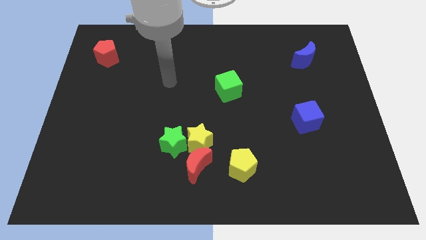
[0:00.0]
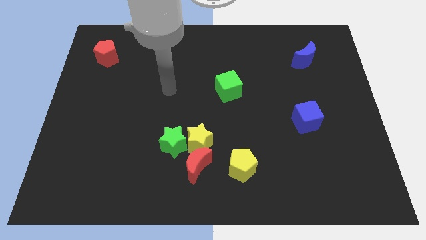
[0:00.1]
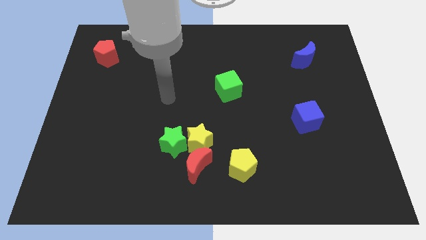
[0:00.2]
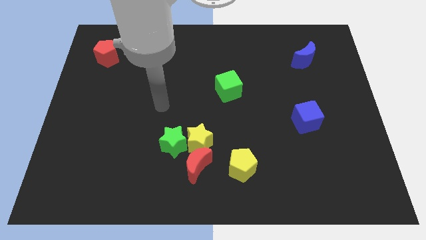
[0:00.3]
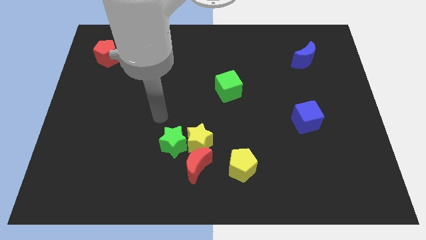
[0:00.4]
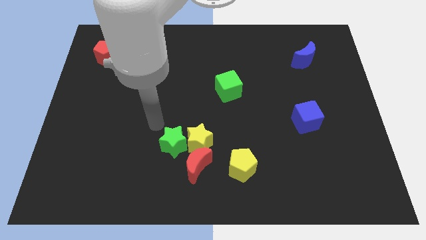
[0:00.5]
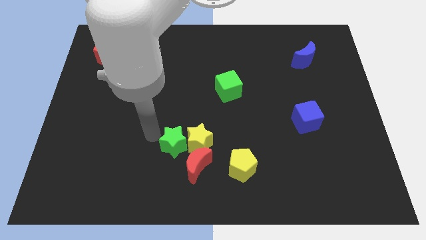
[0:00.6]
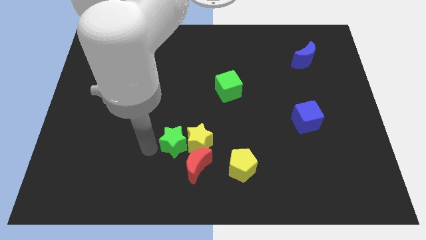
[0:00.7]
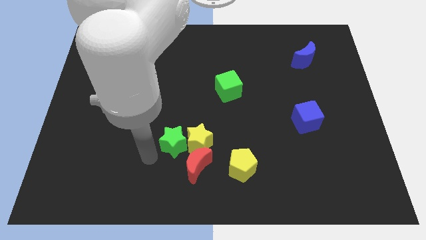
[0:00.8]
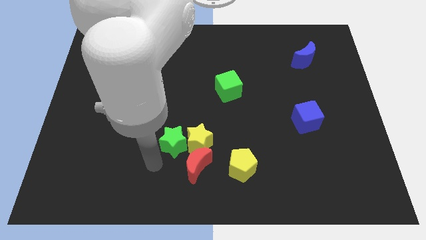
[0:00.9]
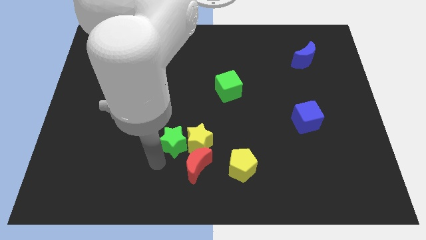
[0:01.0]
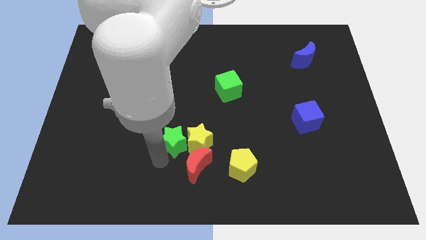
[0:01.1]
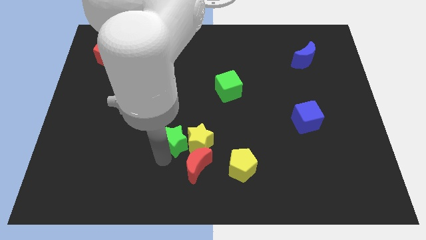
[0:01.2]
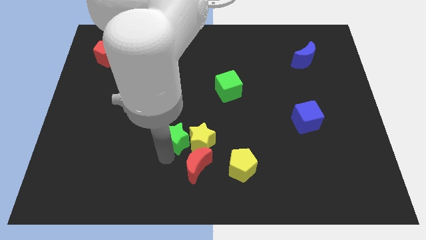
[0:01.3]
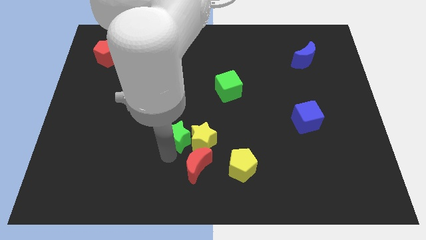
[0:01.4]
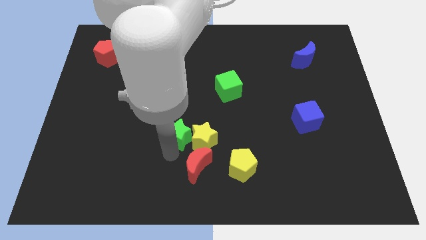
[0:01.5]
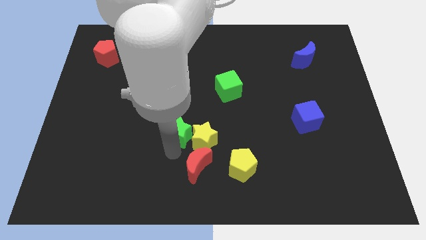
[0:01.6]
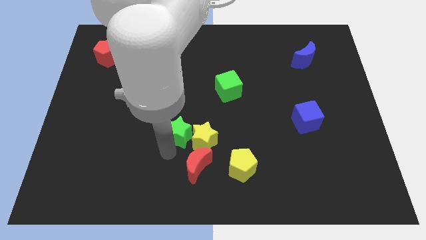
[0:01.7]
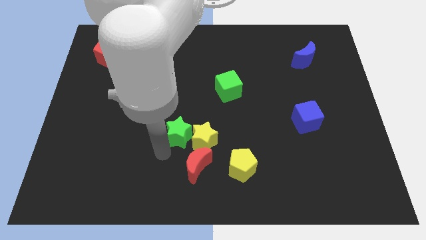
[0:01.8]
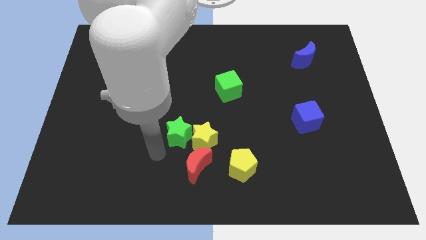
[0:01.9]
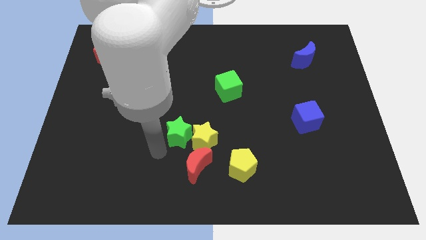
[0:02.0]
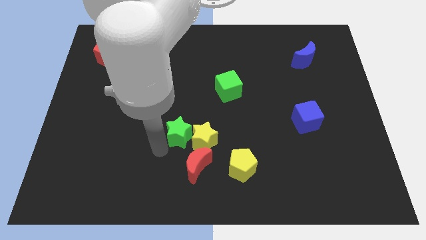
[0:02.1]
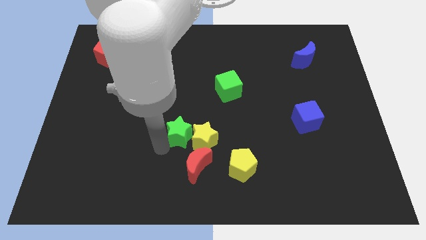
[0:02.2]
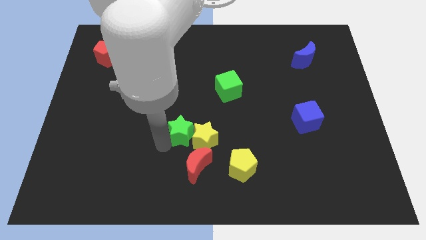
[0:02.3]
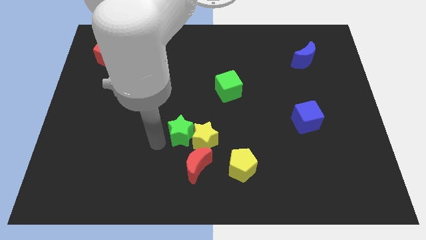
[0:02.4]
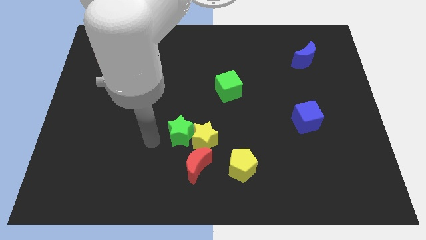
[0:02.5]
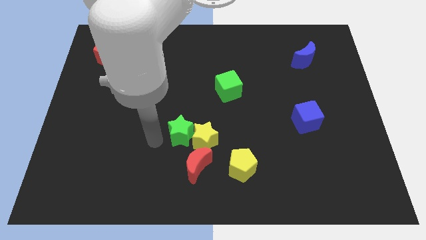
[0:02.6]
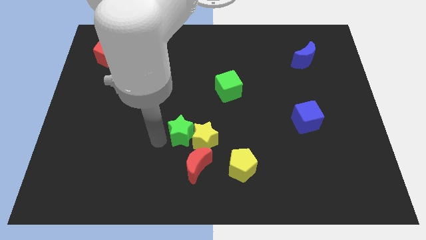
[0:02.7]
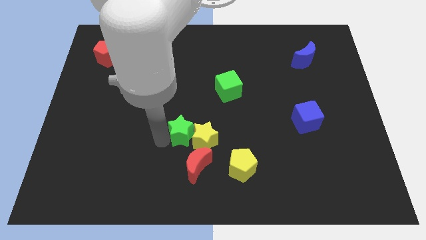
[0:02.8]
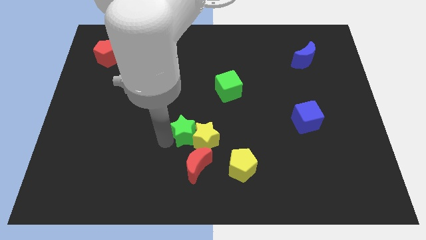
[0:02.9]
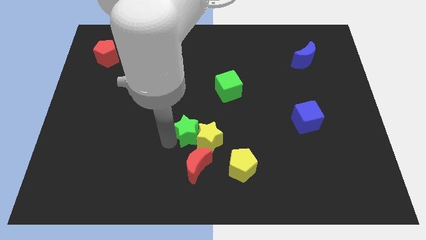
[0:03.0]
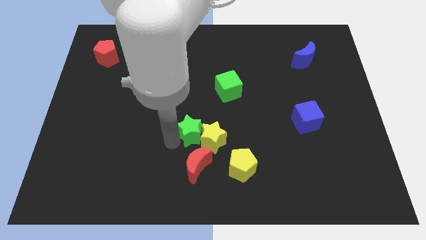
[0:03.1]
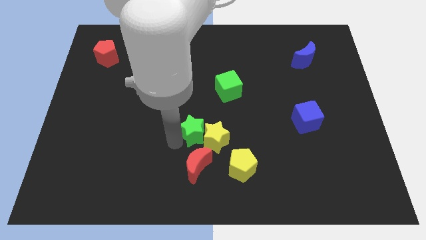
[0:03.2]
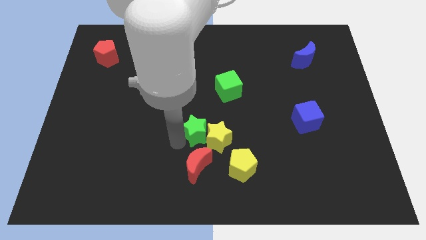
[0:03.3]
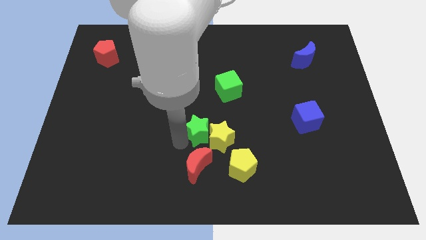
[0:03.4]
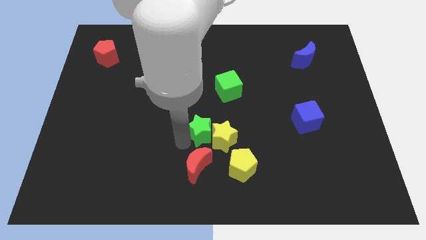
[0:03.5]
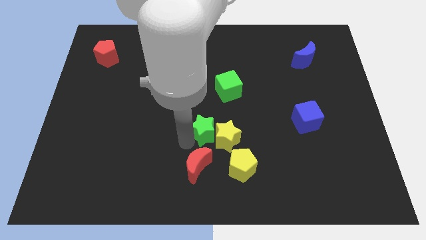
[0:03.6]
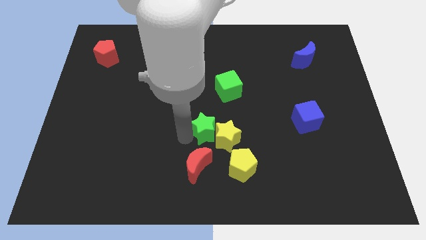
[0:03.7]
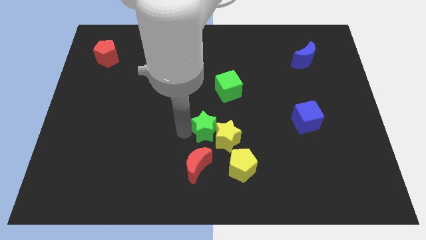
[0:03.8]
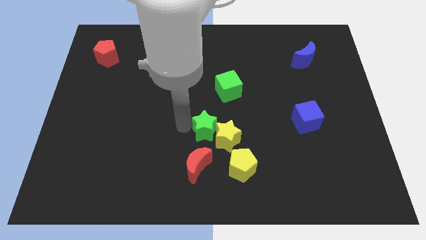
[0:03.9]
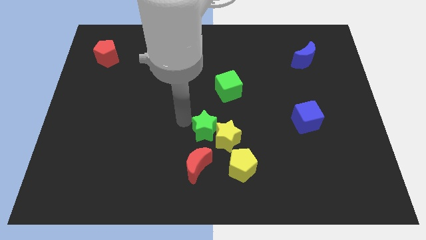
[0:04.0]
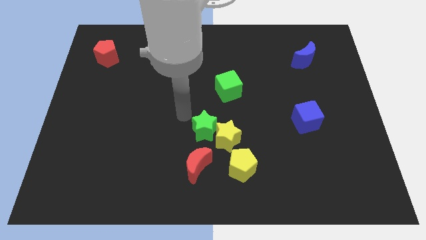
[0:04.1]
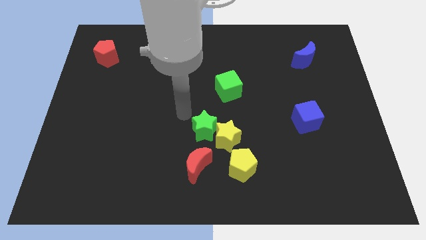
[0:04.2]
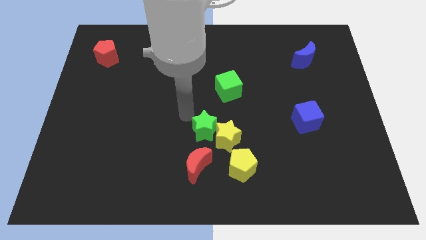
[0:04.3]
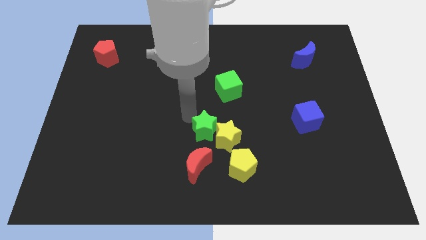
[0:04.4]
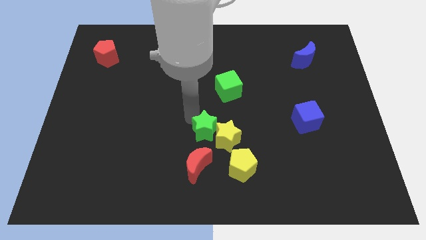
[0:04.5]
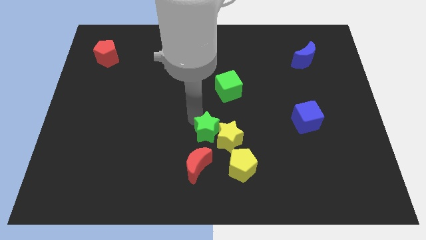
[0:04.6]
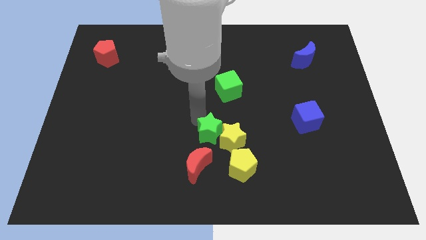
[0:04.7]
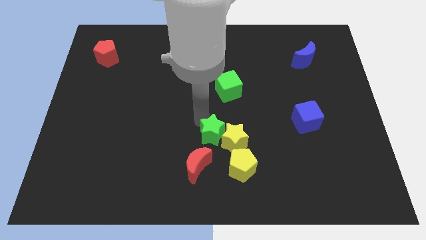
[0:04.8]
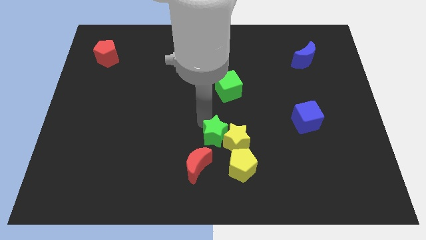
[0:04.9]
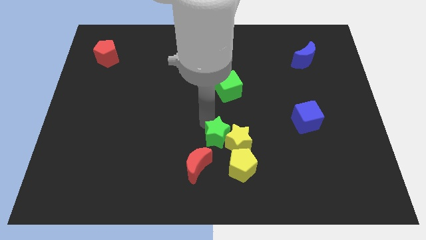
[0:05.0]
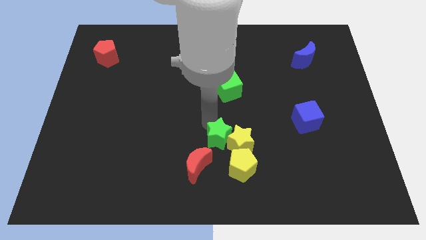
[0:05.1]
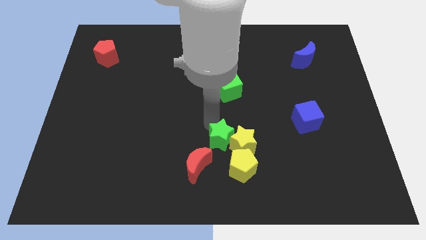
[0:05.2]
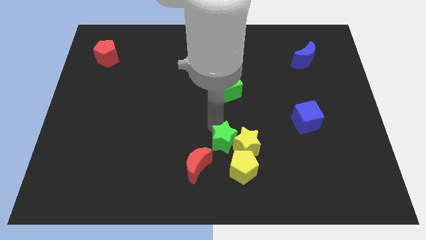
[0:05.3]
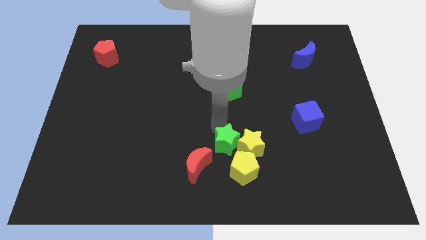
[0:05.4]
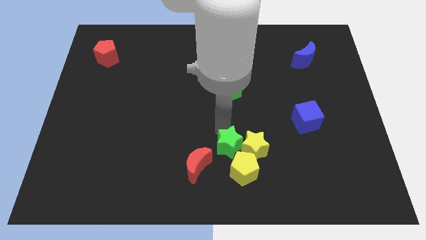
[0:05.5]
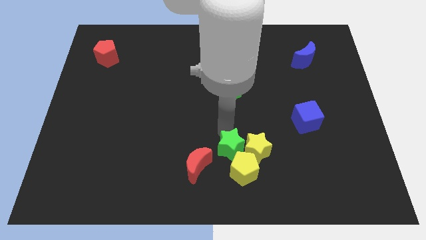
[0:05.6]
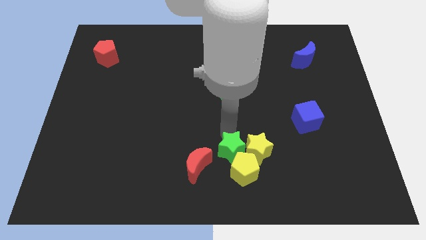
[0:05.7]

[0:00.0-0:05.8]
slide the green star next to the yellow pentagon

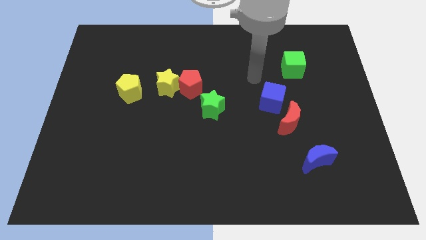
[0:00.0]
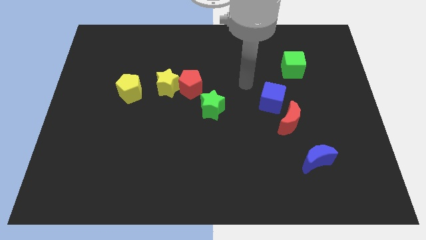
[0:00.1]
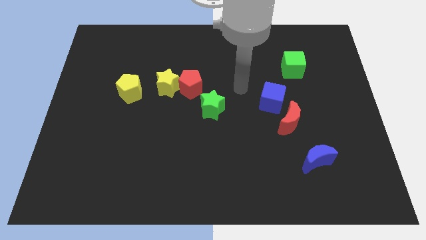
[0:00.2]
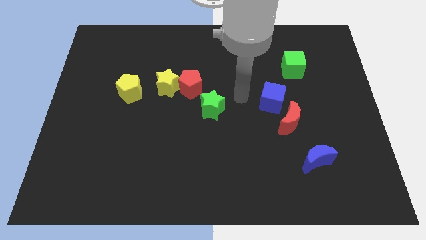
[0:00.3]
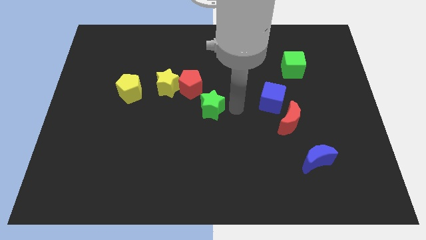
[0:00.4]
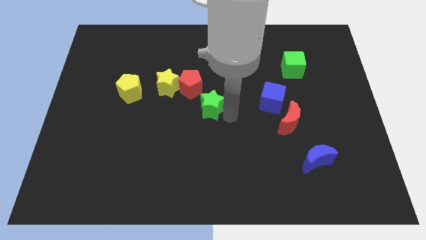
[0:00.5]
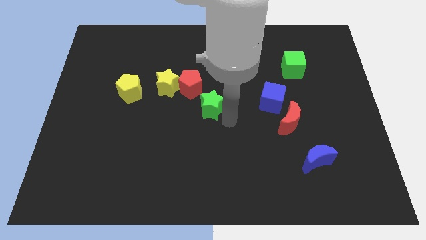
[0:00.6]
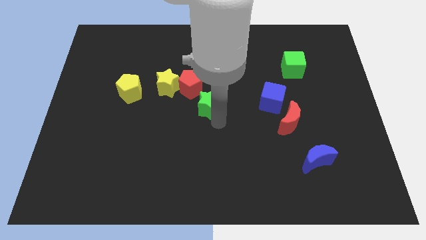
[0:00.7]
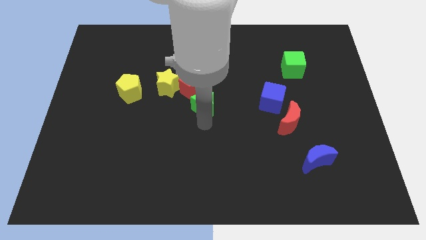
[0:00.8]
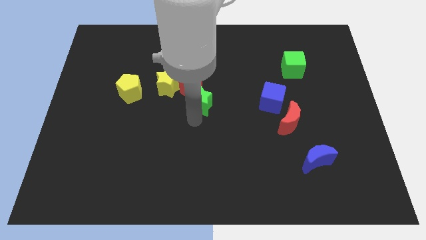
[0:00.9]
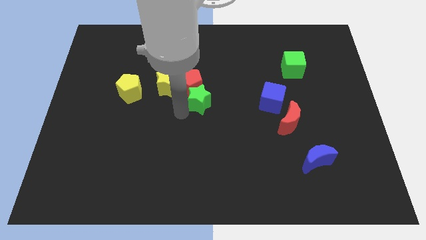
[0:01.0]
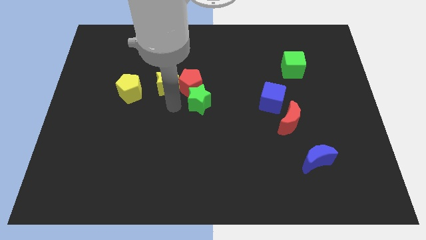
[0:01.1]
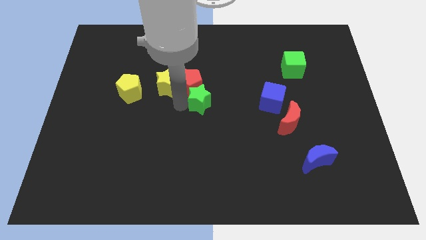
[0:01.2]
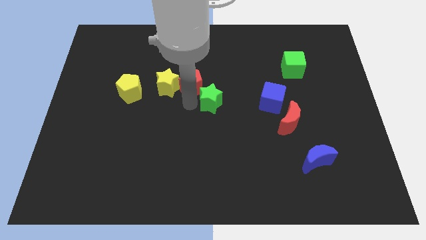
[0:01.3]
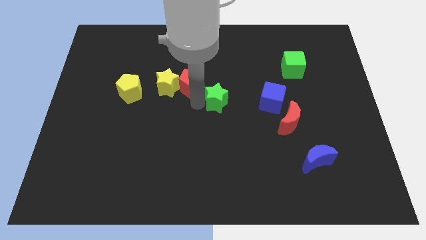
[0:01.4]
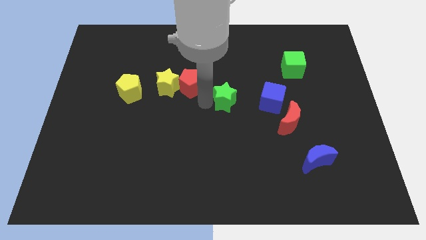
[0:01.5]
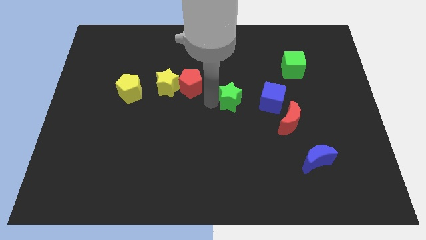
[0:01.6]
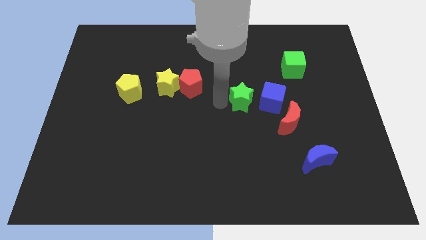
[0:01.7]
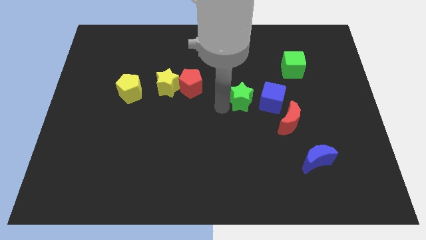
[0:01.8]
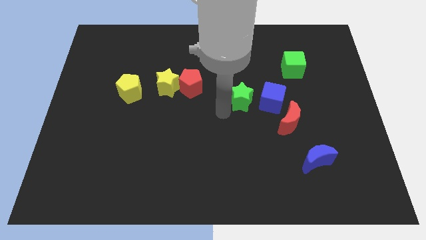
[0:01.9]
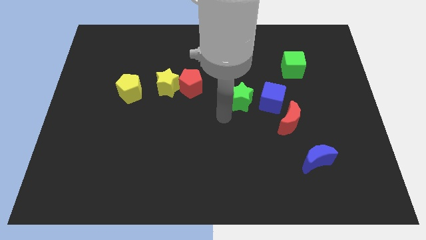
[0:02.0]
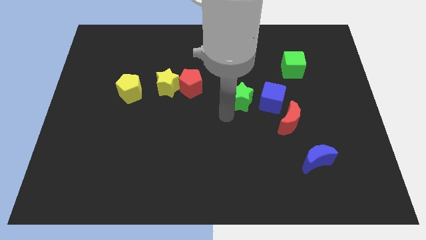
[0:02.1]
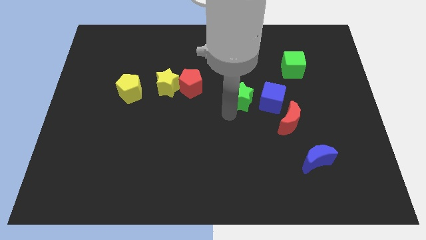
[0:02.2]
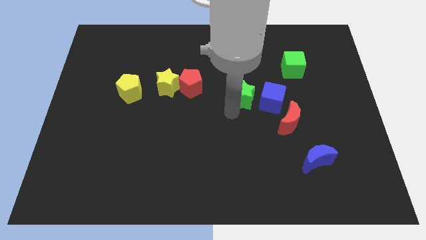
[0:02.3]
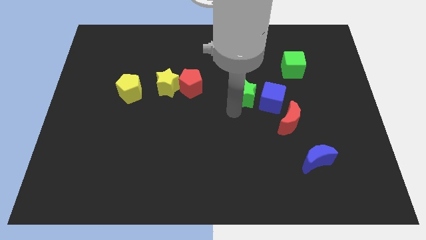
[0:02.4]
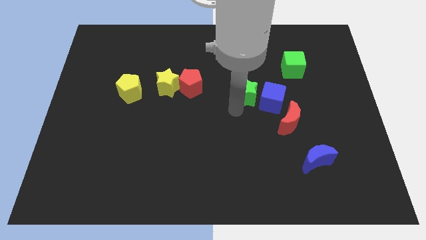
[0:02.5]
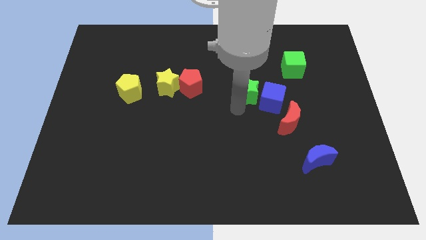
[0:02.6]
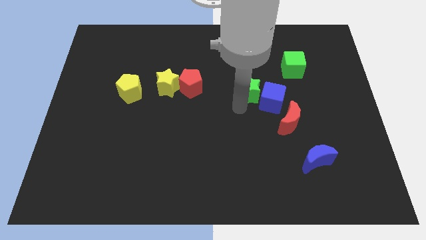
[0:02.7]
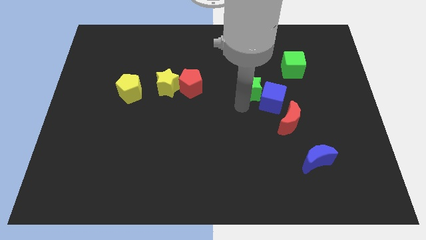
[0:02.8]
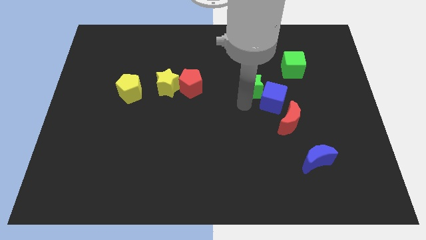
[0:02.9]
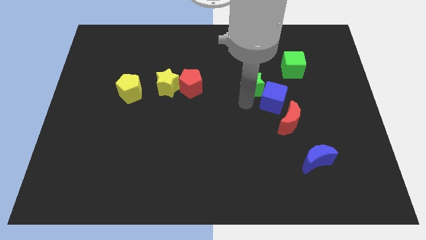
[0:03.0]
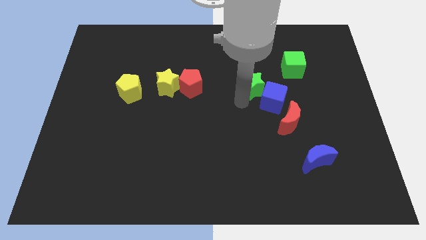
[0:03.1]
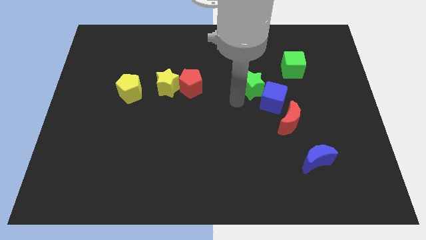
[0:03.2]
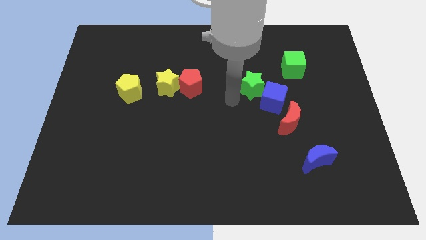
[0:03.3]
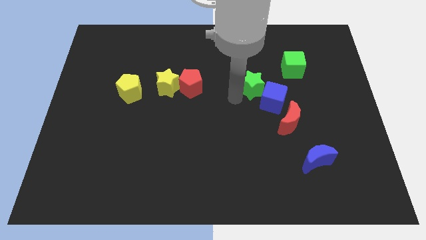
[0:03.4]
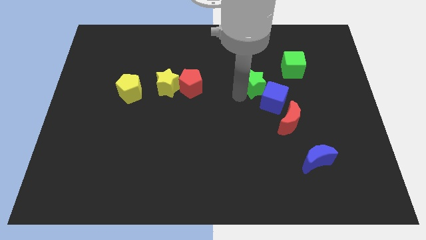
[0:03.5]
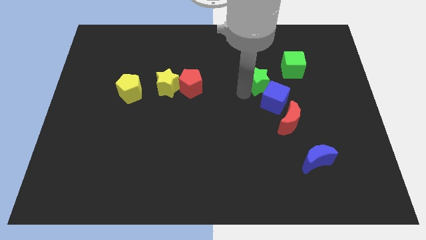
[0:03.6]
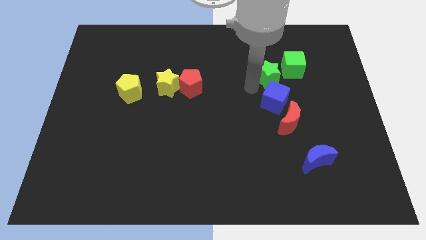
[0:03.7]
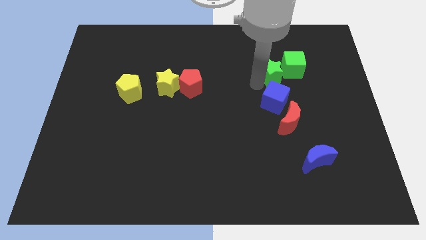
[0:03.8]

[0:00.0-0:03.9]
move the green star close to the green cube
